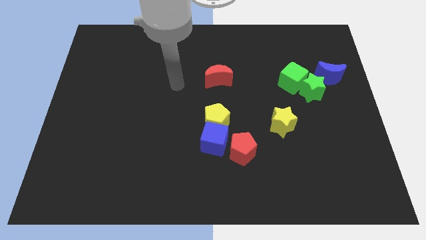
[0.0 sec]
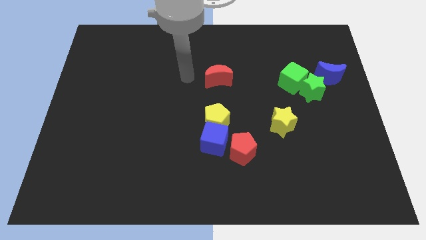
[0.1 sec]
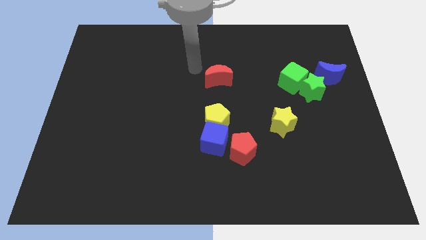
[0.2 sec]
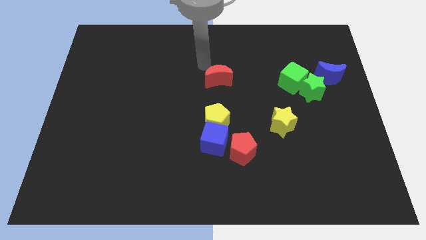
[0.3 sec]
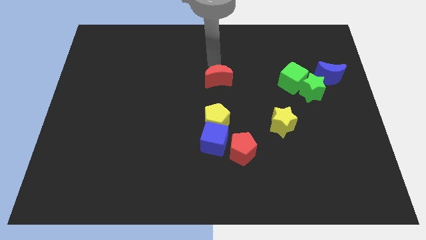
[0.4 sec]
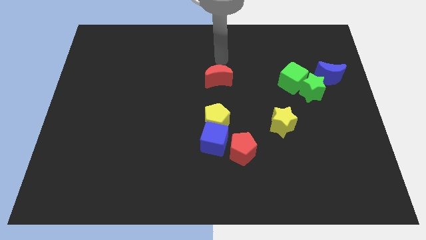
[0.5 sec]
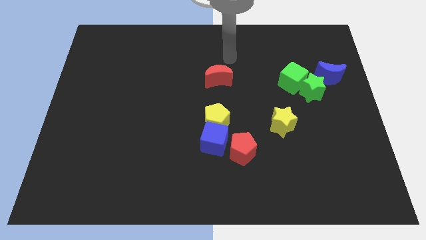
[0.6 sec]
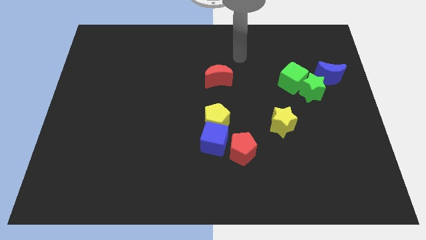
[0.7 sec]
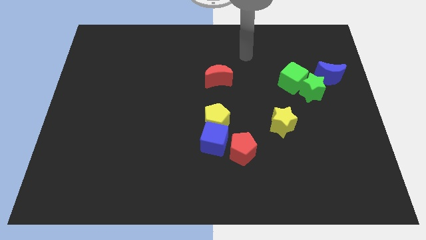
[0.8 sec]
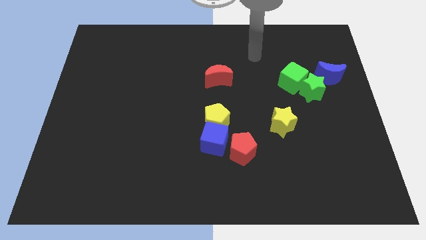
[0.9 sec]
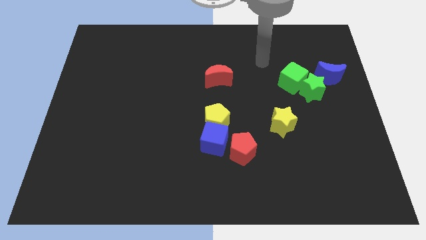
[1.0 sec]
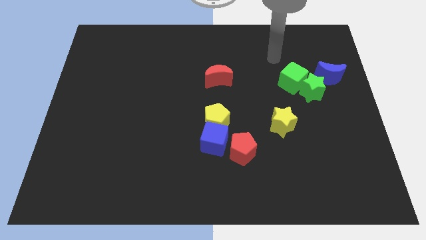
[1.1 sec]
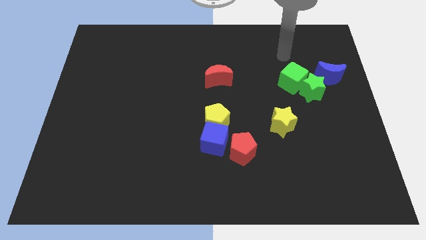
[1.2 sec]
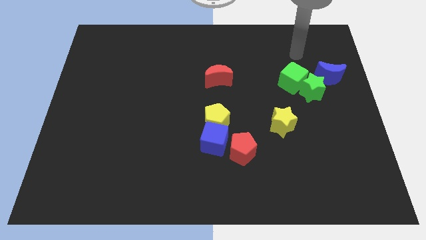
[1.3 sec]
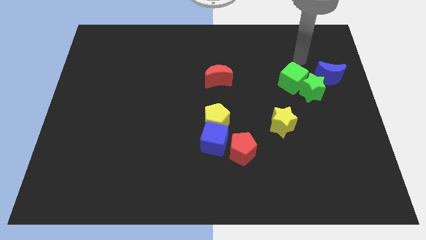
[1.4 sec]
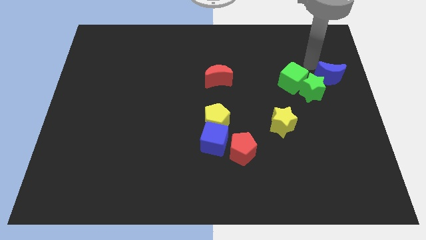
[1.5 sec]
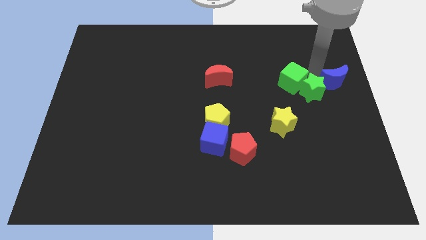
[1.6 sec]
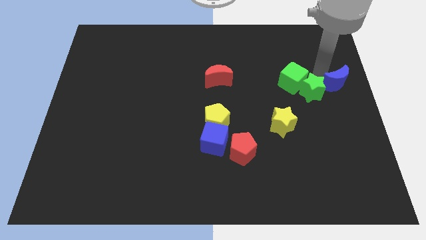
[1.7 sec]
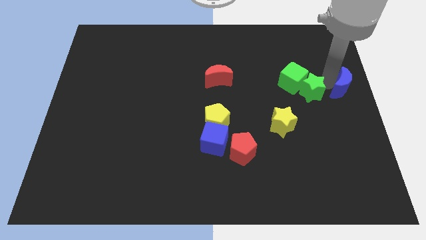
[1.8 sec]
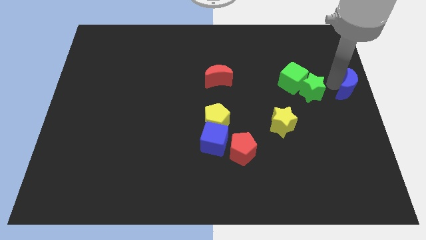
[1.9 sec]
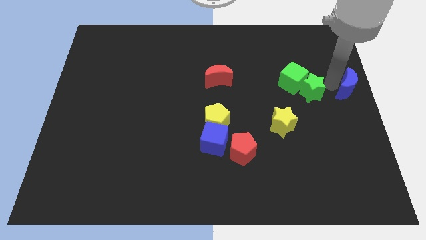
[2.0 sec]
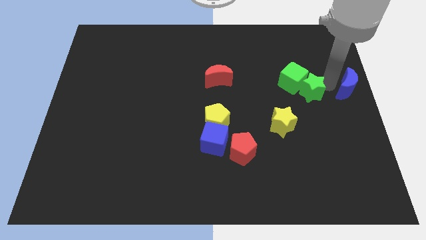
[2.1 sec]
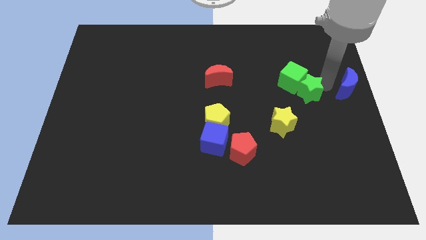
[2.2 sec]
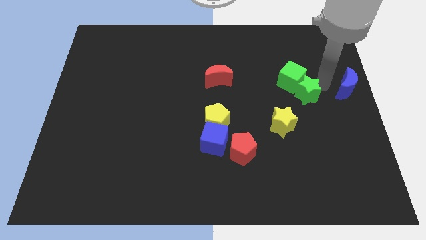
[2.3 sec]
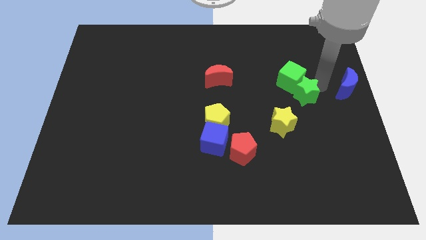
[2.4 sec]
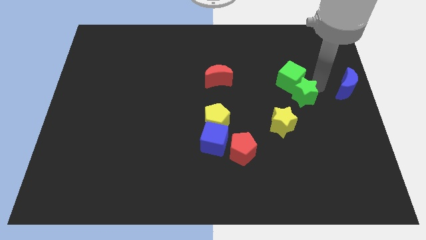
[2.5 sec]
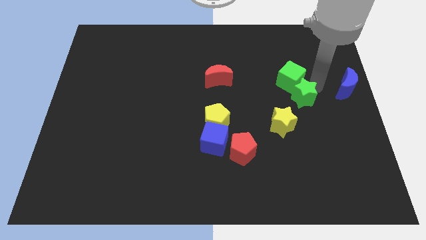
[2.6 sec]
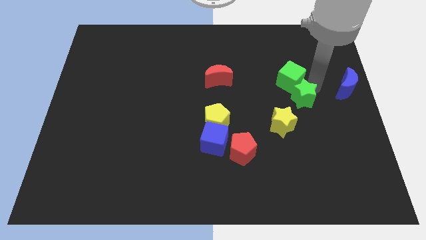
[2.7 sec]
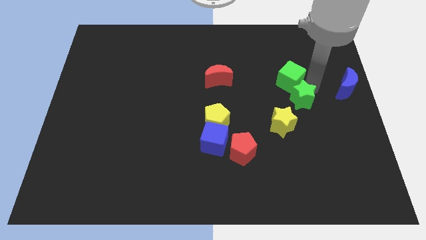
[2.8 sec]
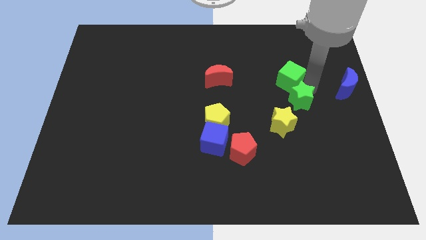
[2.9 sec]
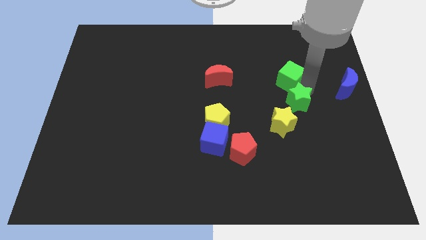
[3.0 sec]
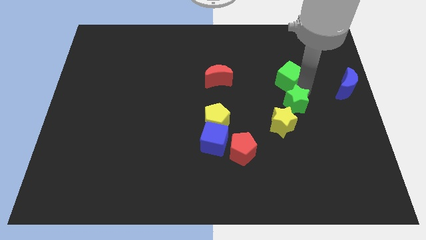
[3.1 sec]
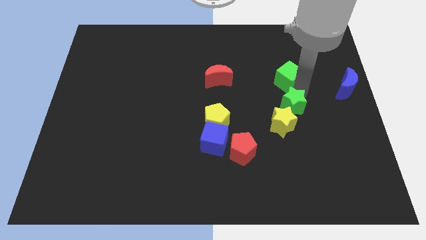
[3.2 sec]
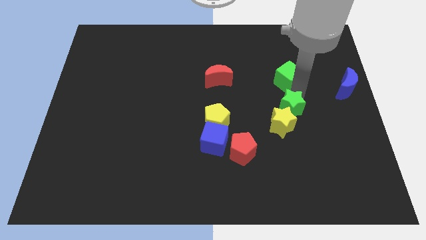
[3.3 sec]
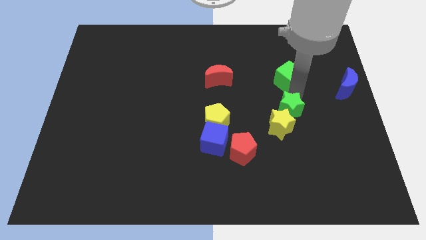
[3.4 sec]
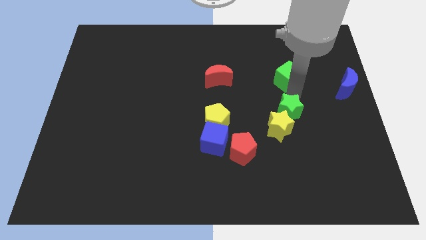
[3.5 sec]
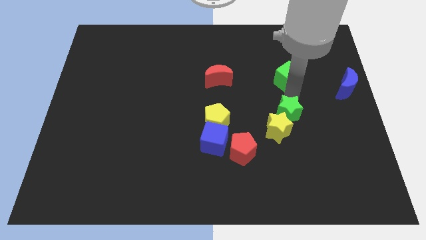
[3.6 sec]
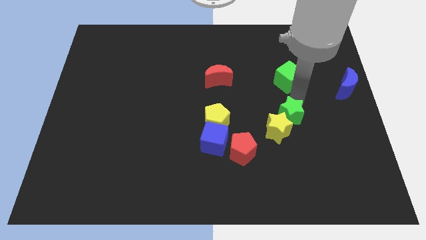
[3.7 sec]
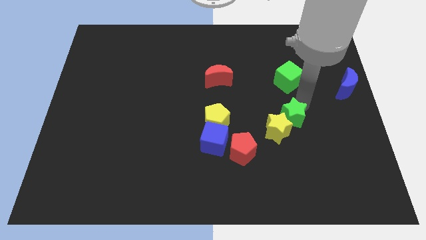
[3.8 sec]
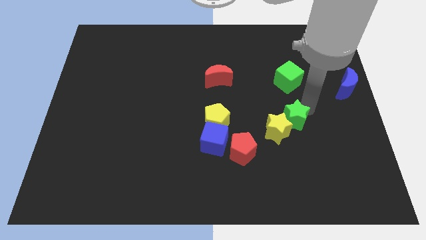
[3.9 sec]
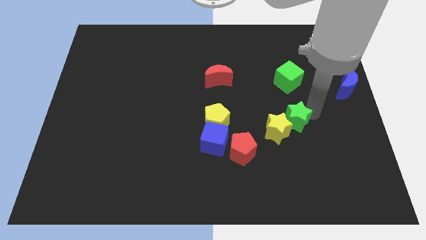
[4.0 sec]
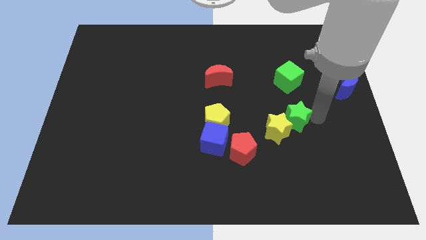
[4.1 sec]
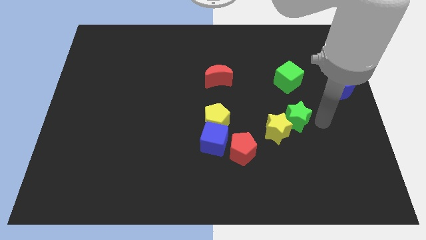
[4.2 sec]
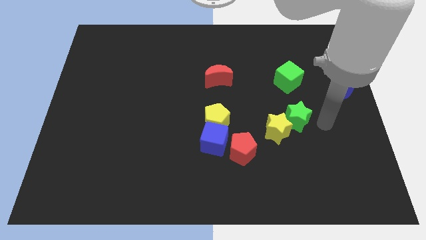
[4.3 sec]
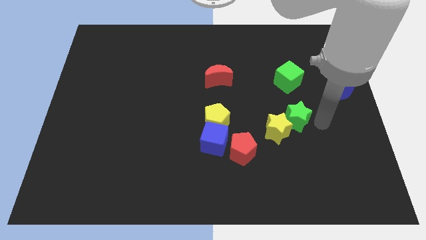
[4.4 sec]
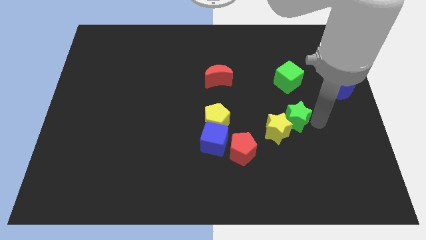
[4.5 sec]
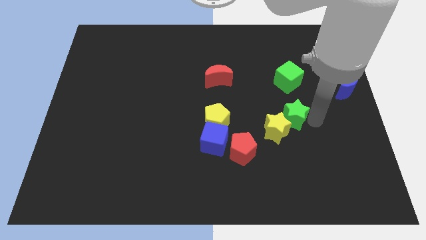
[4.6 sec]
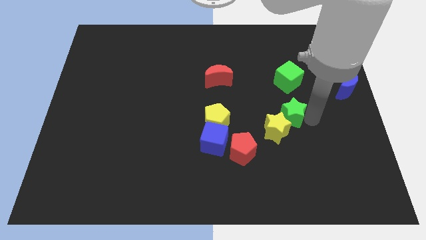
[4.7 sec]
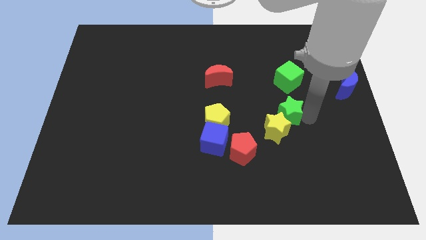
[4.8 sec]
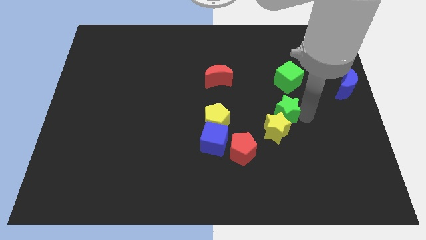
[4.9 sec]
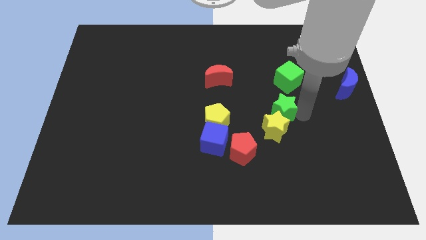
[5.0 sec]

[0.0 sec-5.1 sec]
slide the green star to the right side of the yellow pentagon

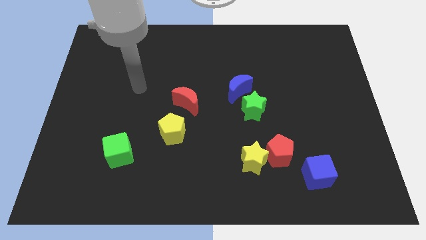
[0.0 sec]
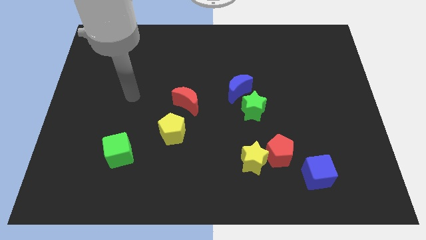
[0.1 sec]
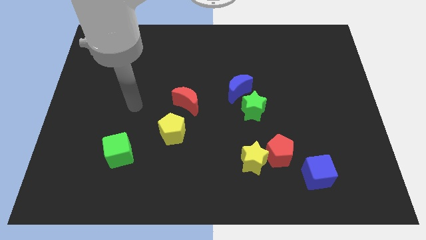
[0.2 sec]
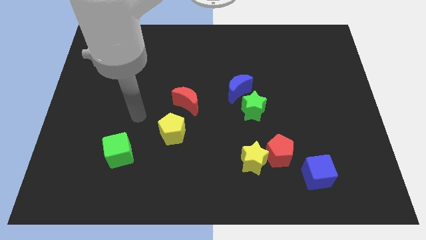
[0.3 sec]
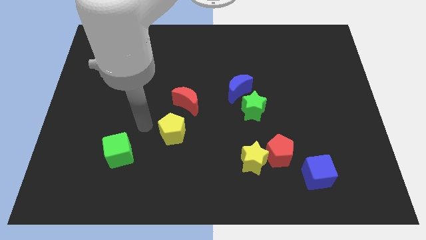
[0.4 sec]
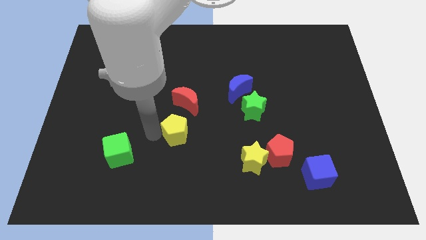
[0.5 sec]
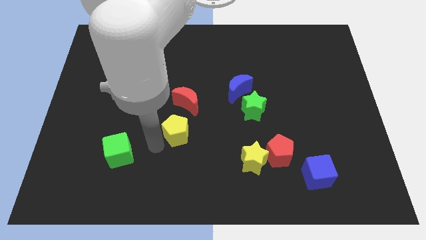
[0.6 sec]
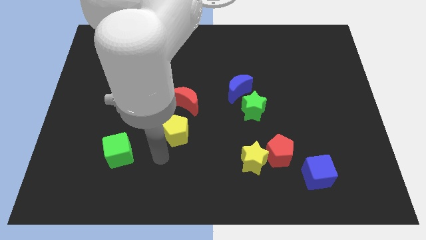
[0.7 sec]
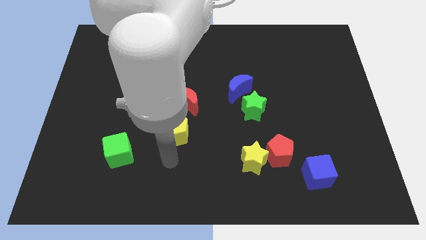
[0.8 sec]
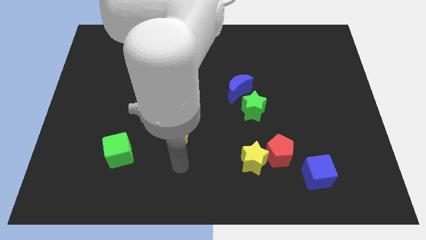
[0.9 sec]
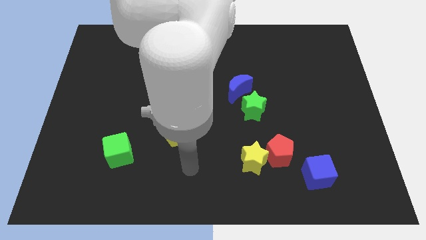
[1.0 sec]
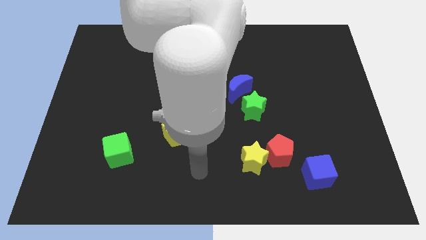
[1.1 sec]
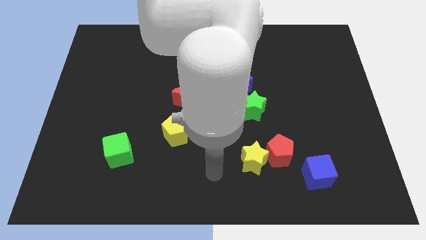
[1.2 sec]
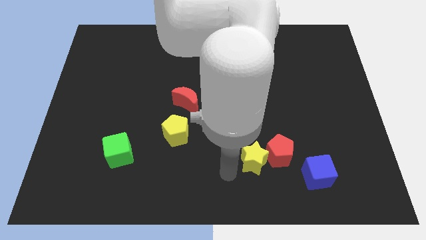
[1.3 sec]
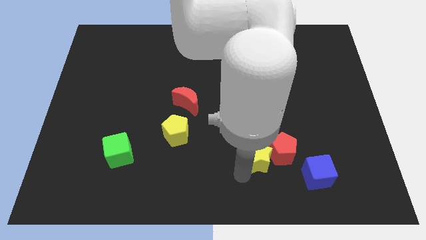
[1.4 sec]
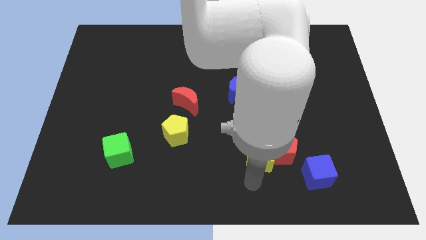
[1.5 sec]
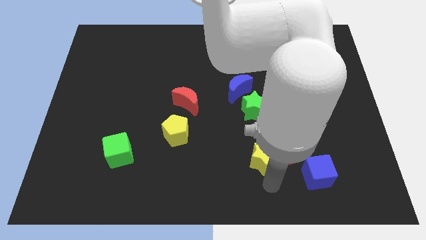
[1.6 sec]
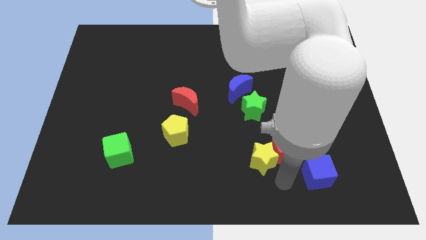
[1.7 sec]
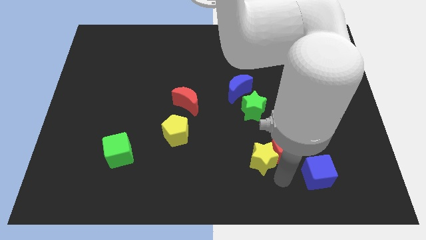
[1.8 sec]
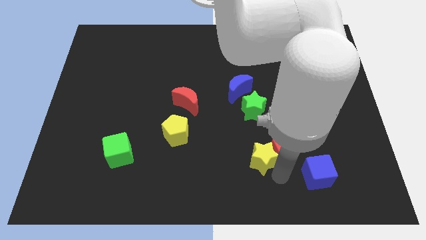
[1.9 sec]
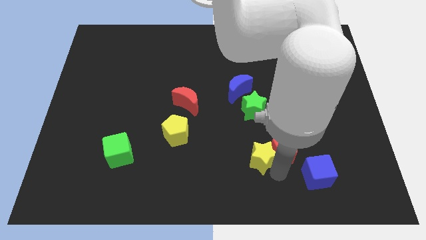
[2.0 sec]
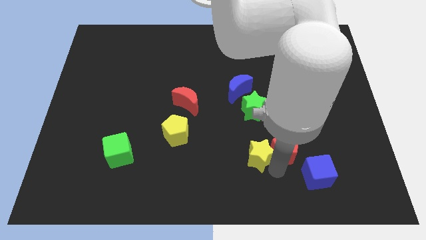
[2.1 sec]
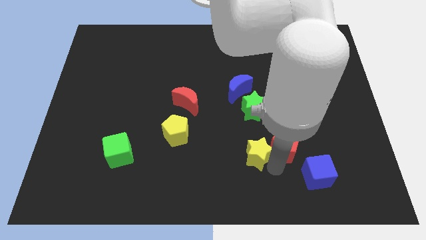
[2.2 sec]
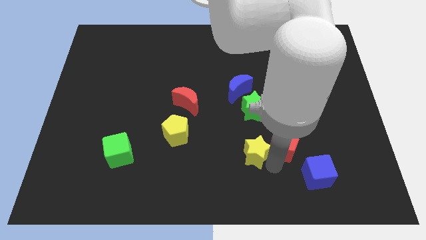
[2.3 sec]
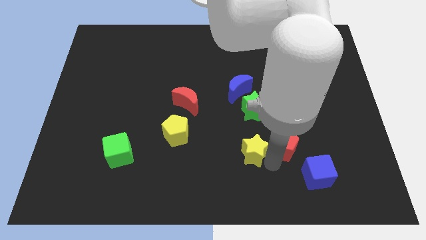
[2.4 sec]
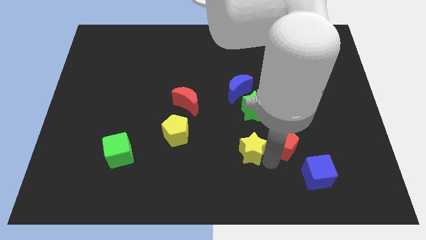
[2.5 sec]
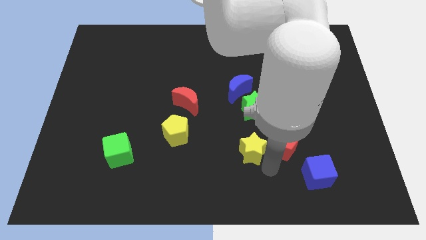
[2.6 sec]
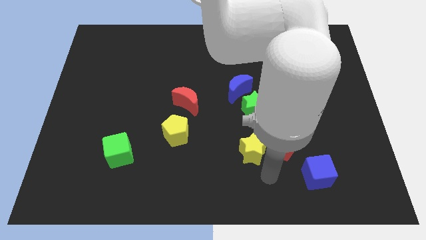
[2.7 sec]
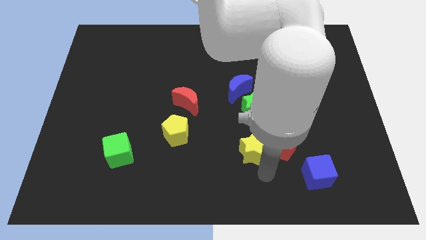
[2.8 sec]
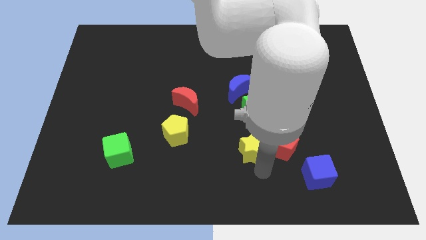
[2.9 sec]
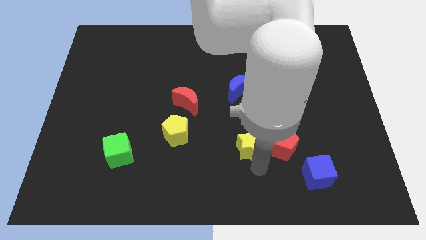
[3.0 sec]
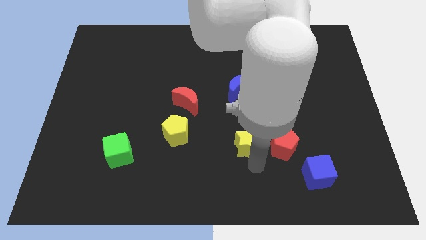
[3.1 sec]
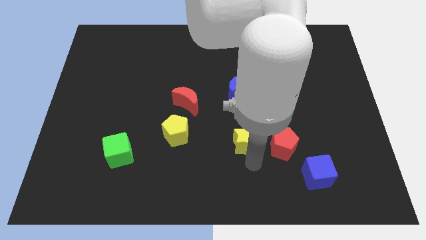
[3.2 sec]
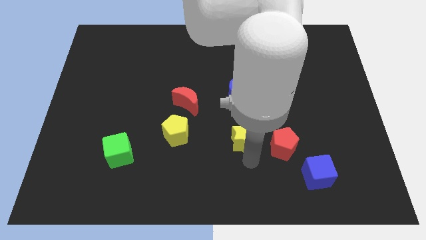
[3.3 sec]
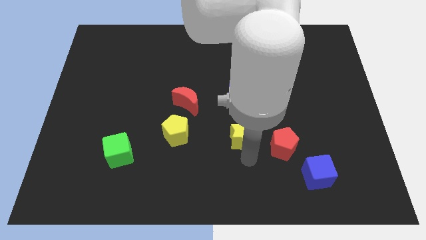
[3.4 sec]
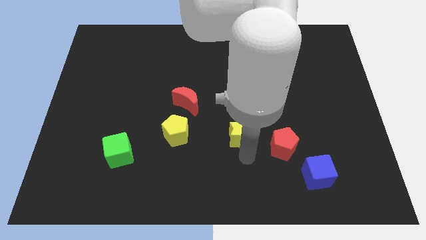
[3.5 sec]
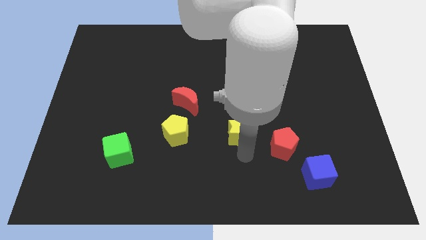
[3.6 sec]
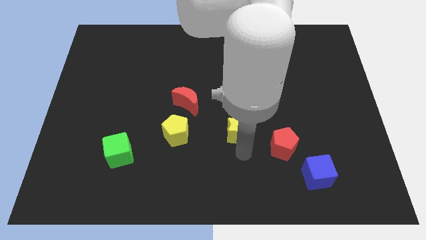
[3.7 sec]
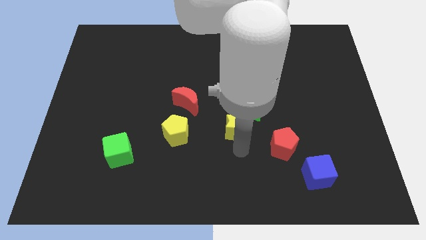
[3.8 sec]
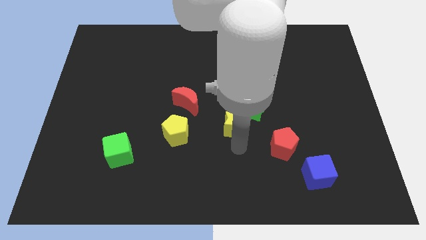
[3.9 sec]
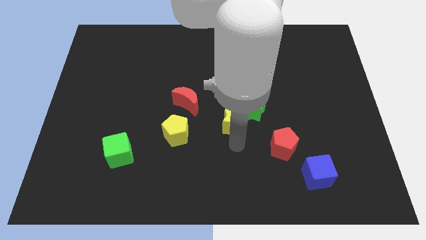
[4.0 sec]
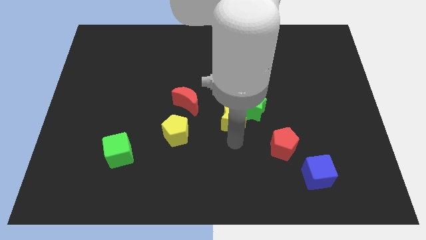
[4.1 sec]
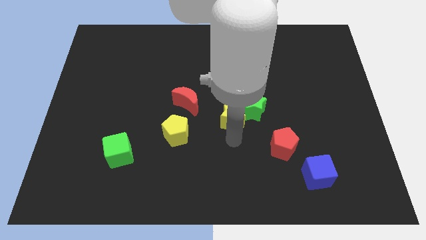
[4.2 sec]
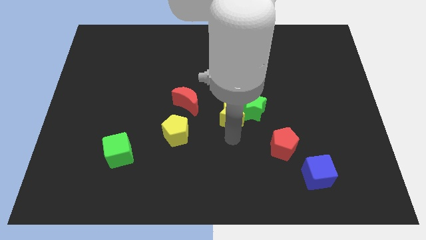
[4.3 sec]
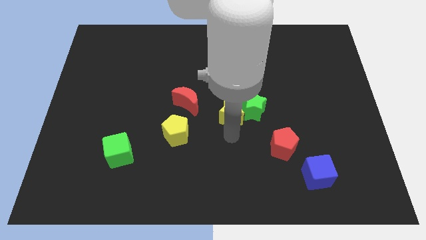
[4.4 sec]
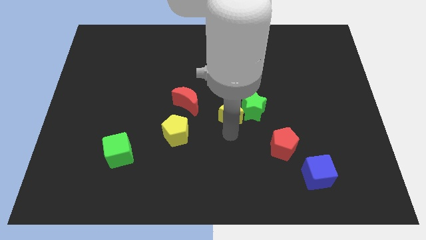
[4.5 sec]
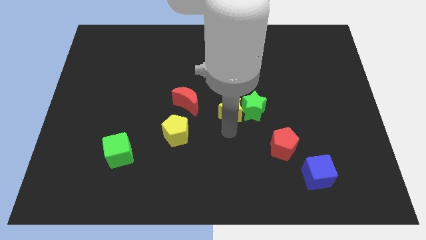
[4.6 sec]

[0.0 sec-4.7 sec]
move the yellow star to the top left side of the green star
